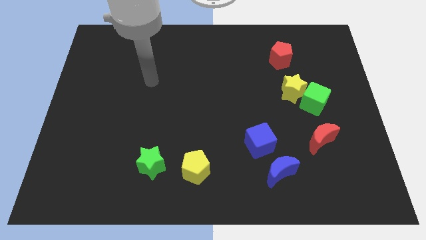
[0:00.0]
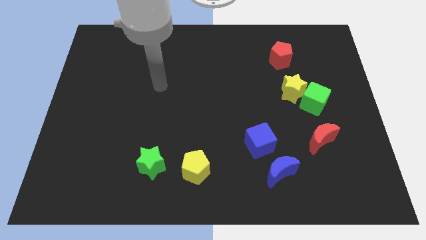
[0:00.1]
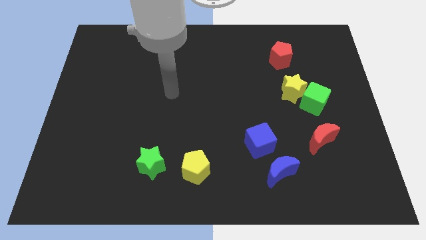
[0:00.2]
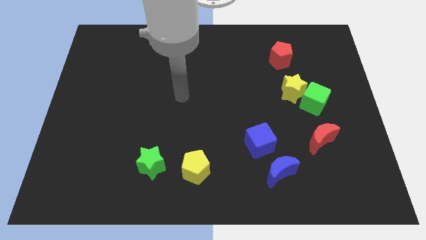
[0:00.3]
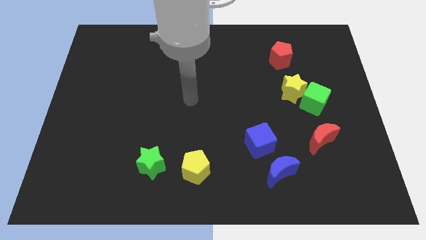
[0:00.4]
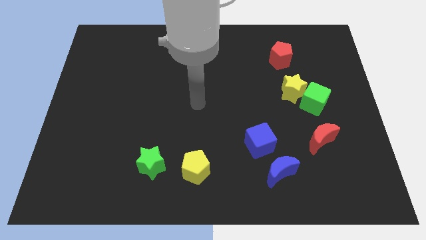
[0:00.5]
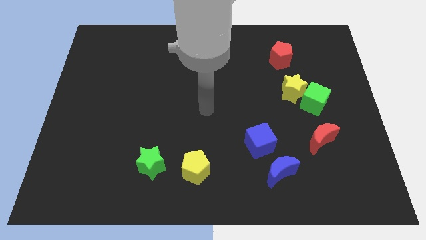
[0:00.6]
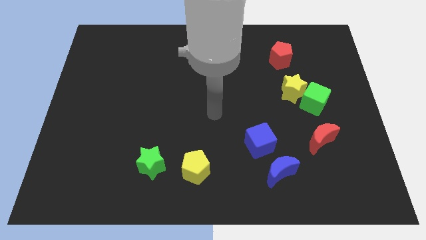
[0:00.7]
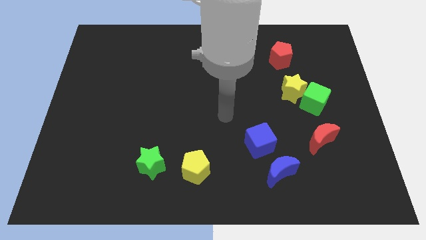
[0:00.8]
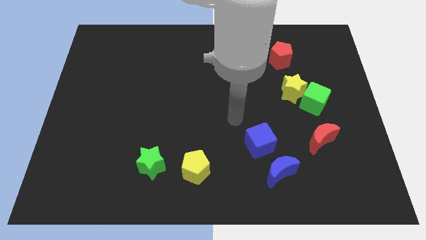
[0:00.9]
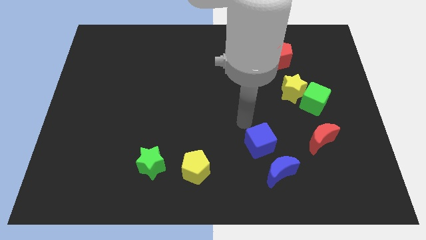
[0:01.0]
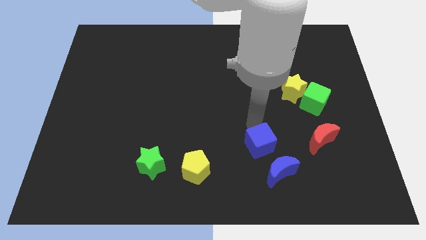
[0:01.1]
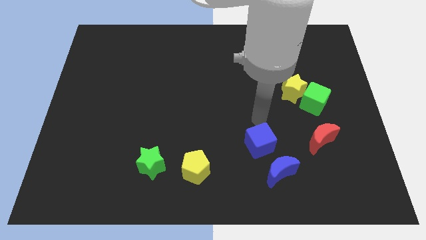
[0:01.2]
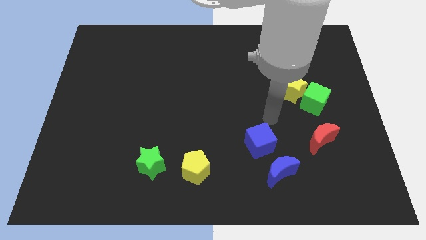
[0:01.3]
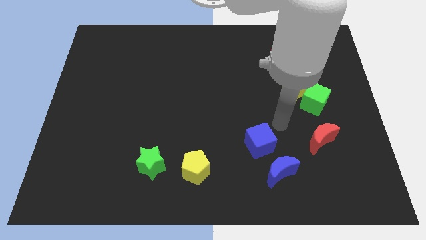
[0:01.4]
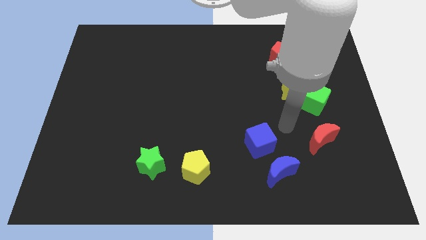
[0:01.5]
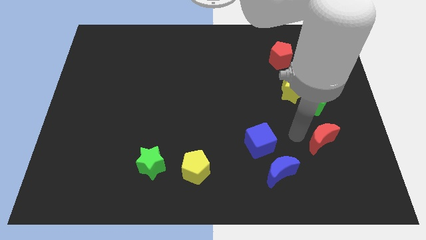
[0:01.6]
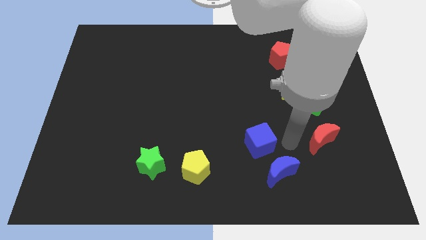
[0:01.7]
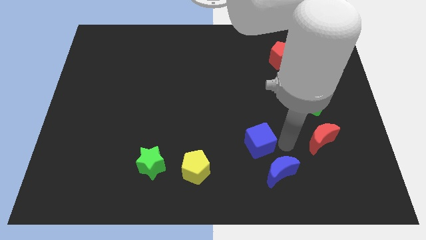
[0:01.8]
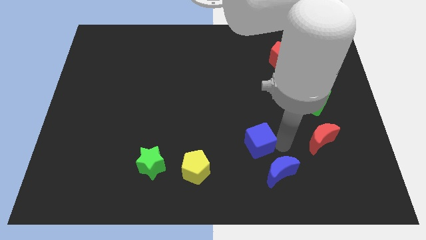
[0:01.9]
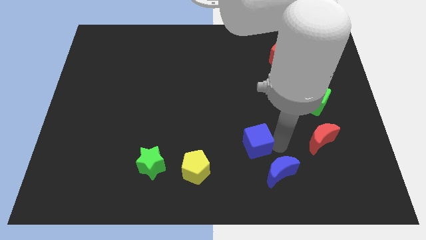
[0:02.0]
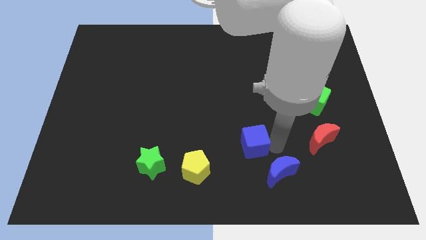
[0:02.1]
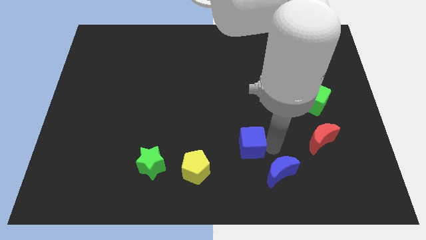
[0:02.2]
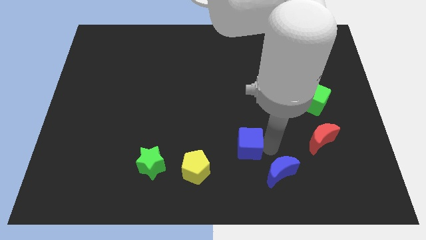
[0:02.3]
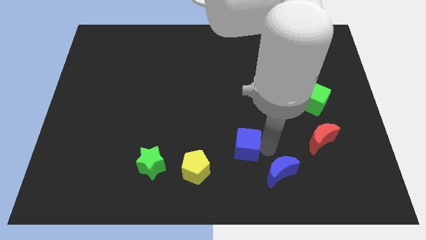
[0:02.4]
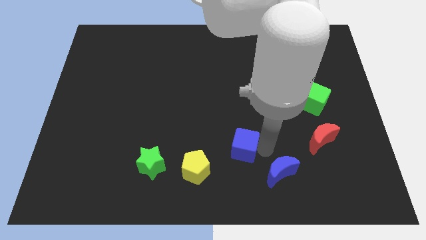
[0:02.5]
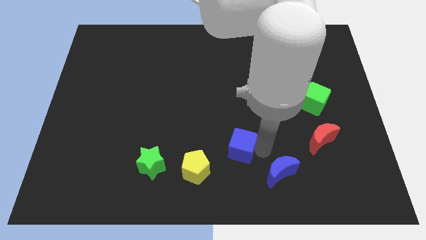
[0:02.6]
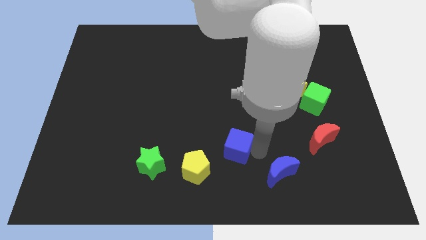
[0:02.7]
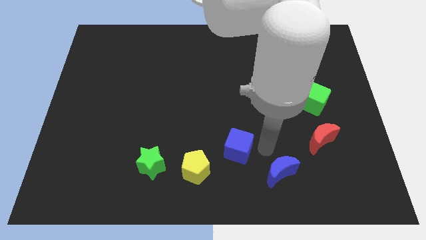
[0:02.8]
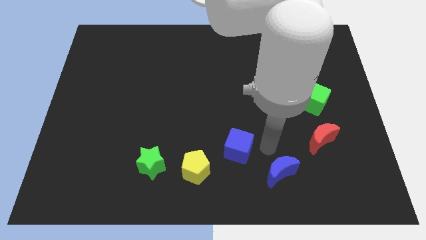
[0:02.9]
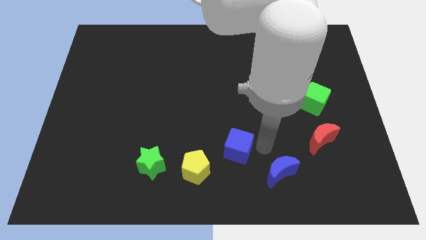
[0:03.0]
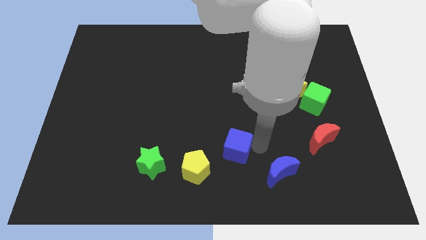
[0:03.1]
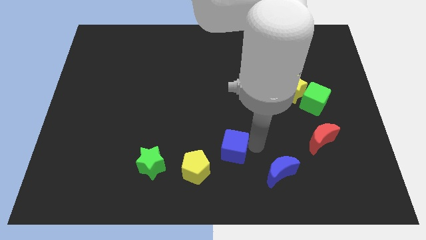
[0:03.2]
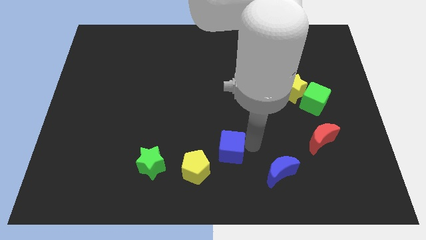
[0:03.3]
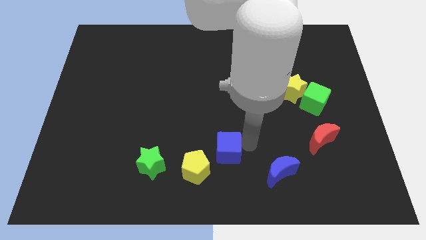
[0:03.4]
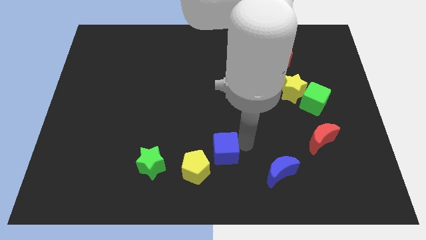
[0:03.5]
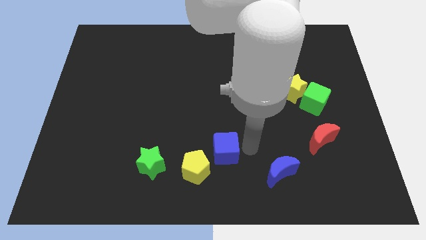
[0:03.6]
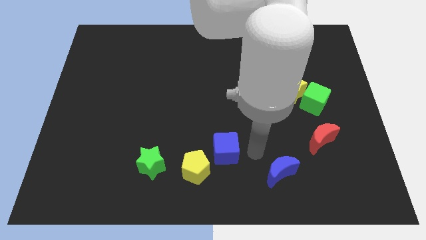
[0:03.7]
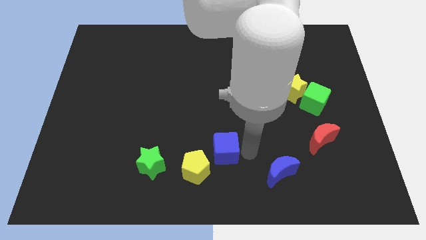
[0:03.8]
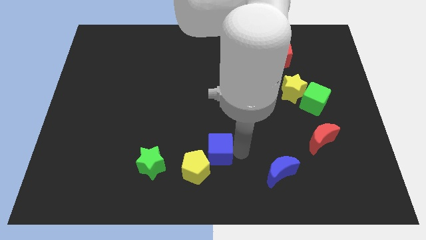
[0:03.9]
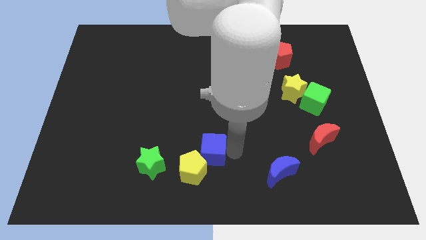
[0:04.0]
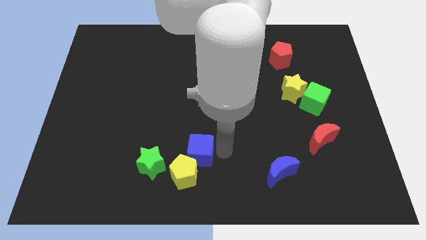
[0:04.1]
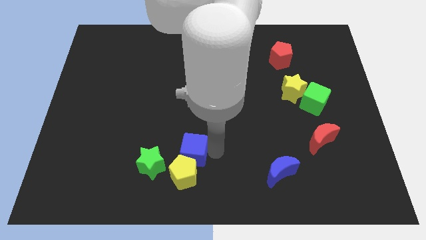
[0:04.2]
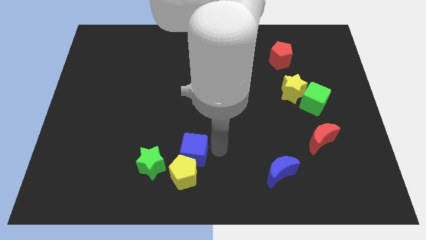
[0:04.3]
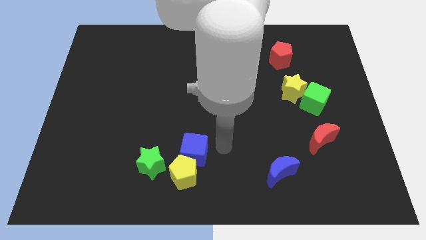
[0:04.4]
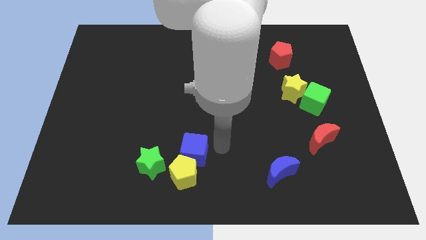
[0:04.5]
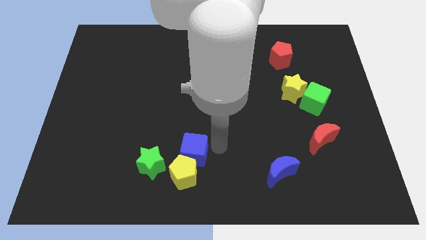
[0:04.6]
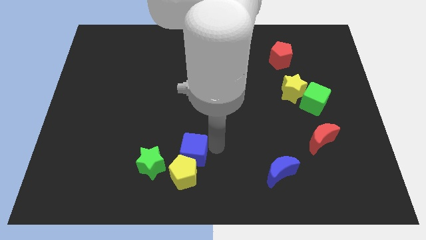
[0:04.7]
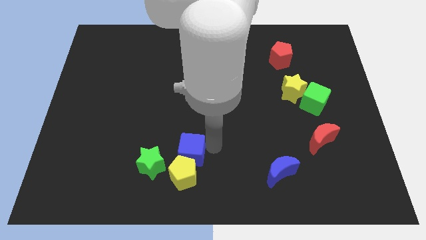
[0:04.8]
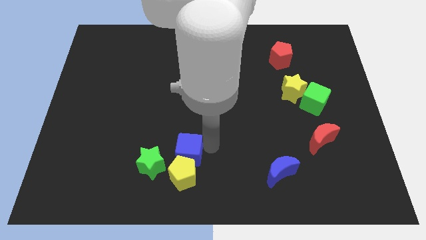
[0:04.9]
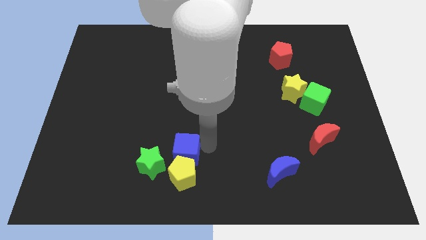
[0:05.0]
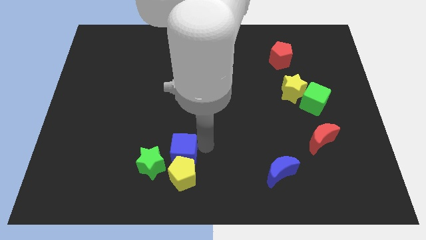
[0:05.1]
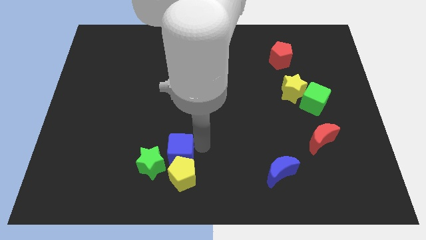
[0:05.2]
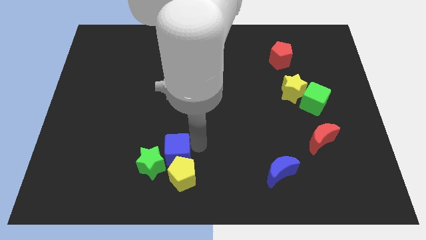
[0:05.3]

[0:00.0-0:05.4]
slide the blue cube close to the green star

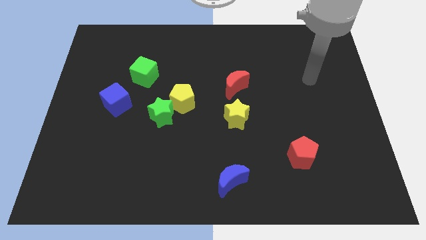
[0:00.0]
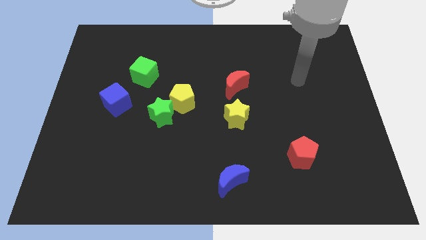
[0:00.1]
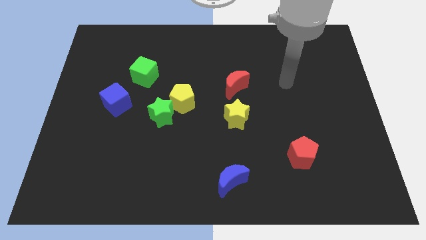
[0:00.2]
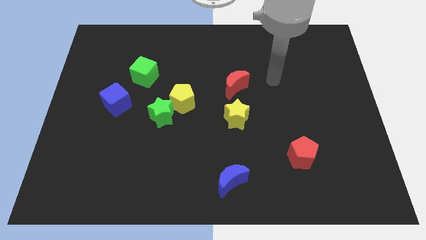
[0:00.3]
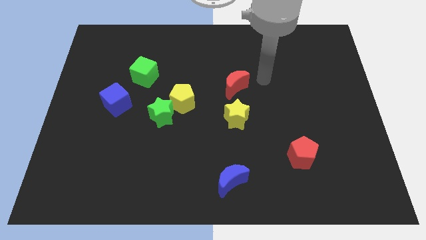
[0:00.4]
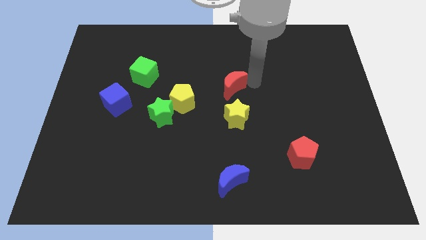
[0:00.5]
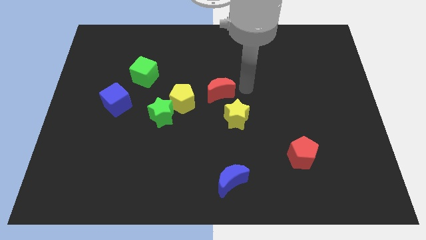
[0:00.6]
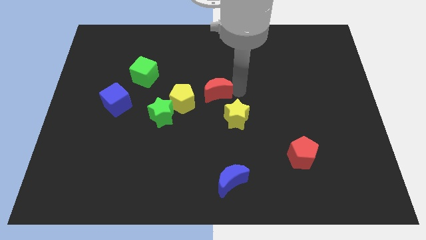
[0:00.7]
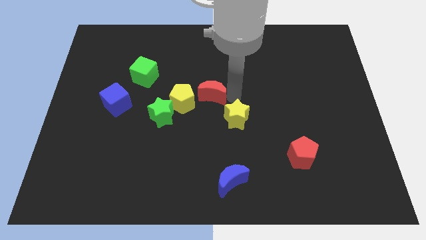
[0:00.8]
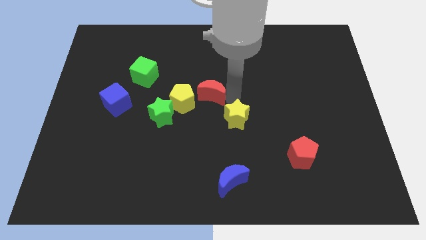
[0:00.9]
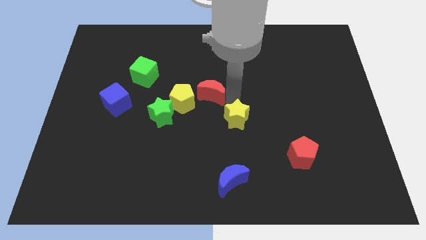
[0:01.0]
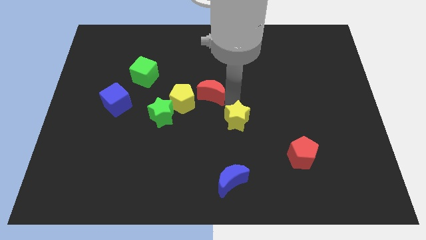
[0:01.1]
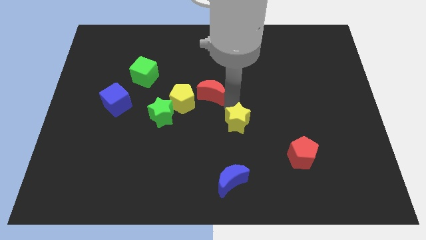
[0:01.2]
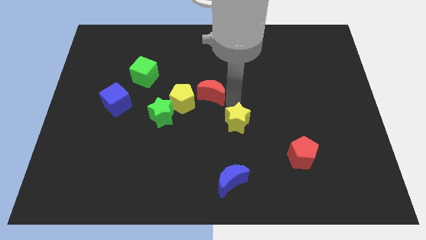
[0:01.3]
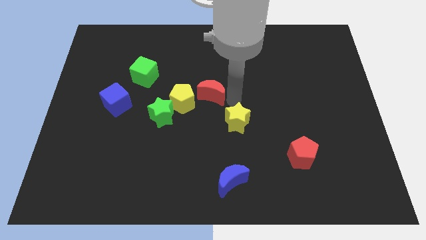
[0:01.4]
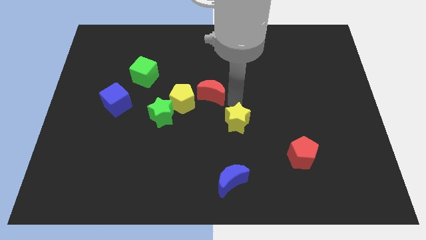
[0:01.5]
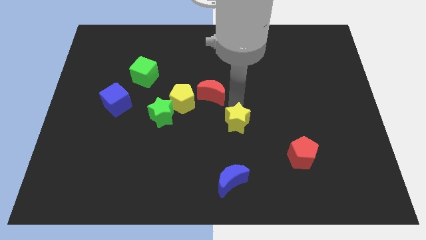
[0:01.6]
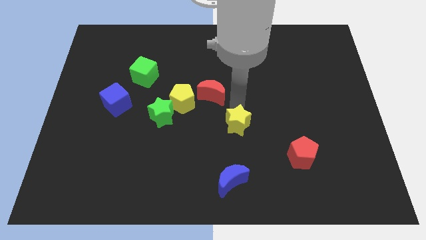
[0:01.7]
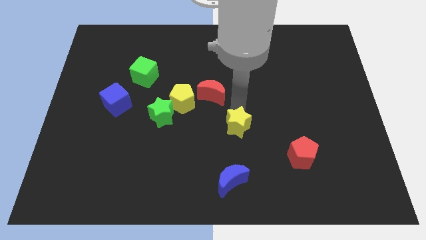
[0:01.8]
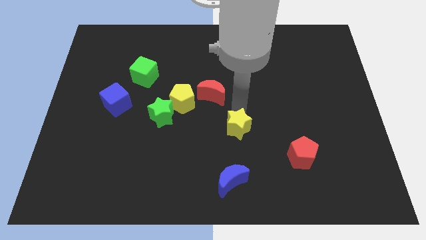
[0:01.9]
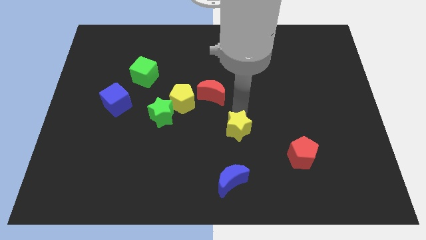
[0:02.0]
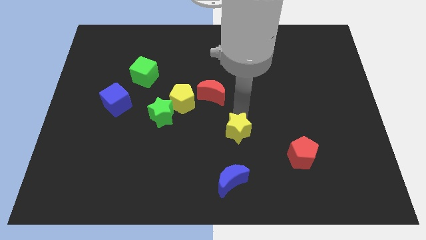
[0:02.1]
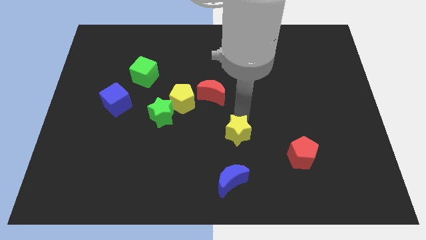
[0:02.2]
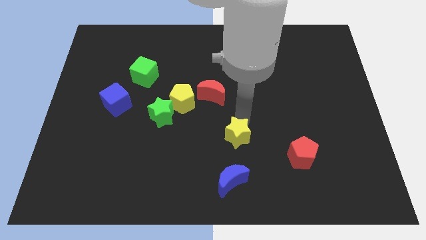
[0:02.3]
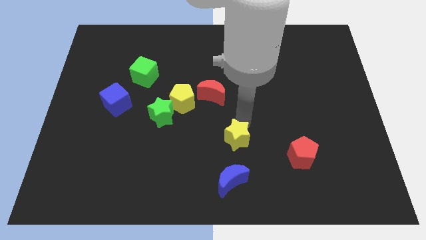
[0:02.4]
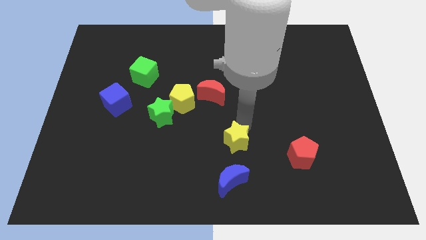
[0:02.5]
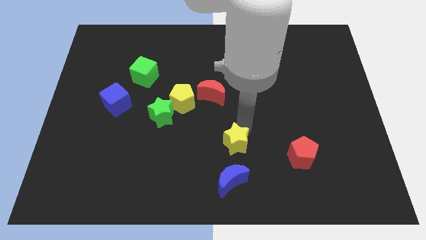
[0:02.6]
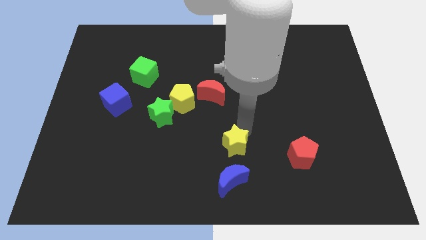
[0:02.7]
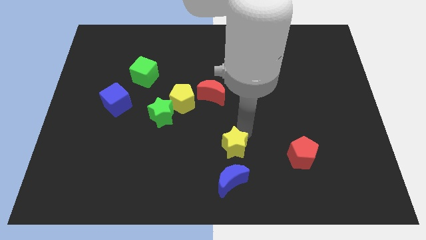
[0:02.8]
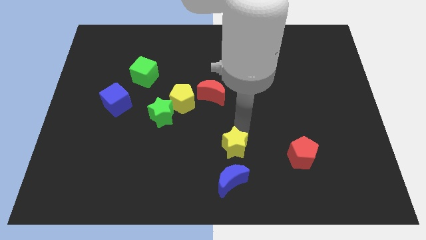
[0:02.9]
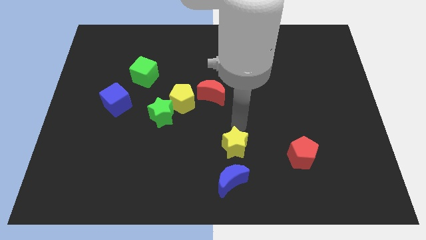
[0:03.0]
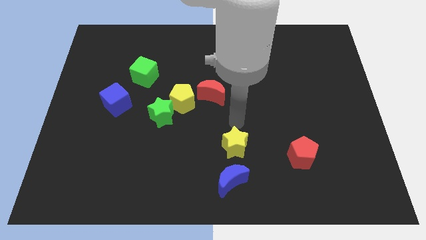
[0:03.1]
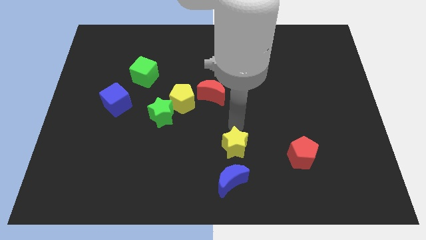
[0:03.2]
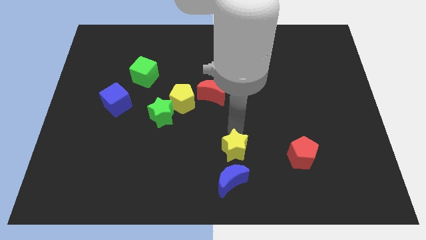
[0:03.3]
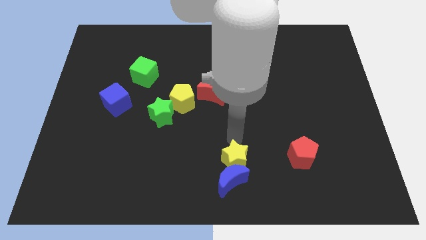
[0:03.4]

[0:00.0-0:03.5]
put the yellow star towards the blue moon
